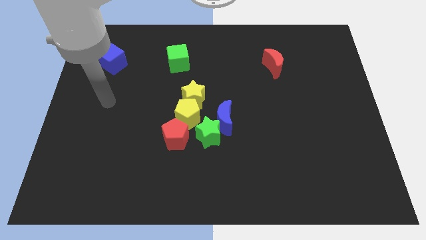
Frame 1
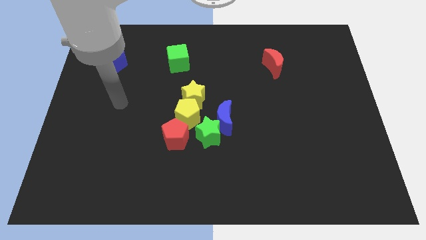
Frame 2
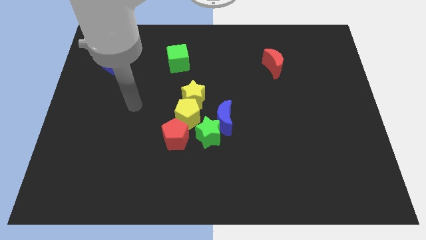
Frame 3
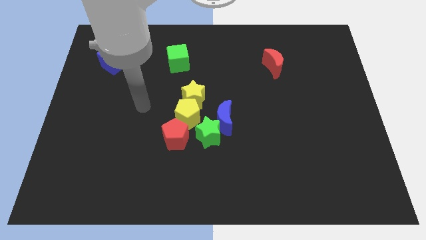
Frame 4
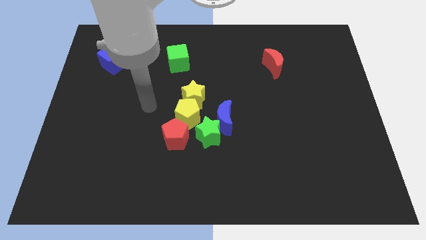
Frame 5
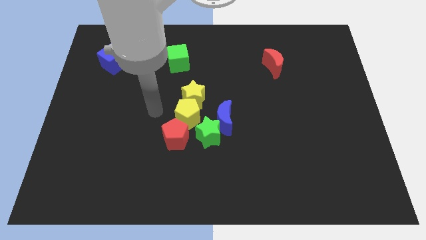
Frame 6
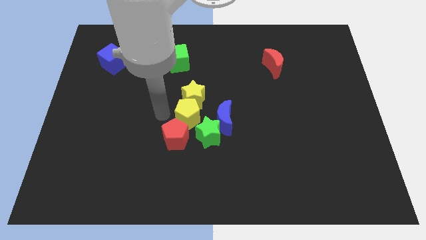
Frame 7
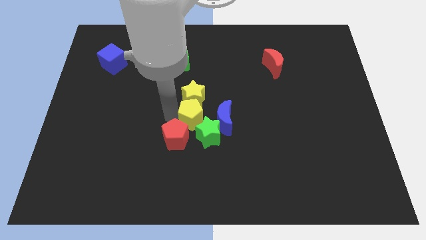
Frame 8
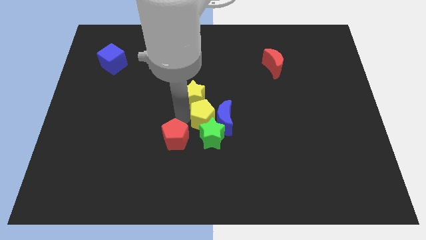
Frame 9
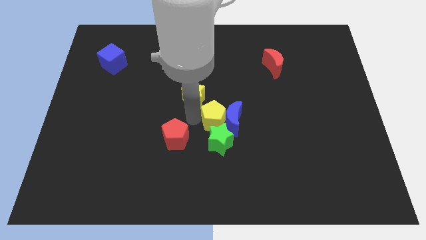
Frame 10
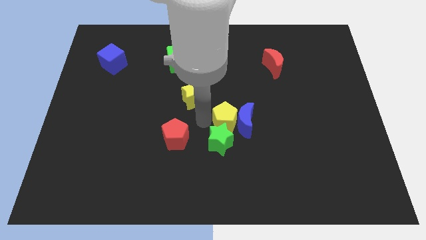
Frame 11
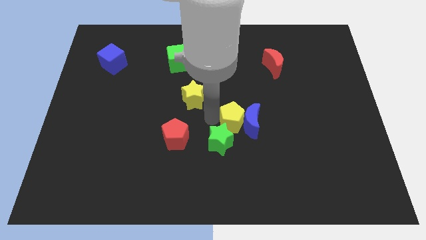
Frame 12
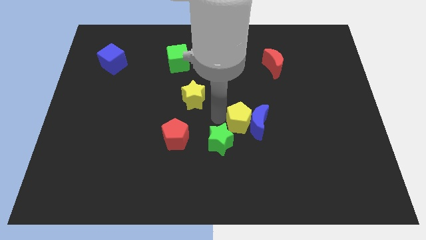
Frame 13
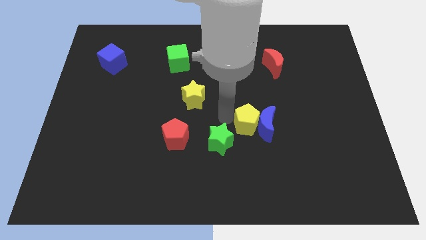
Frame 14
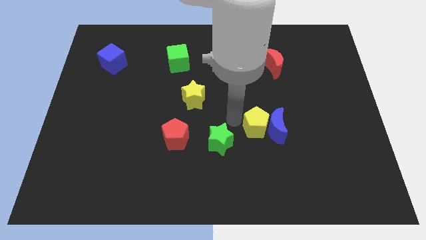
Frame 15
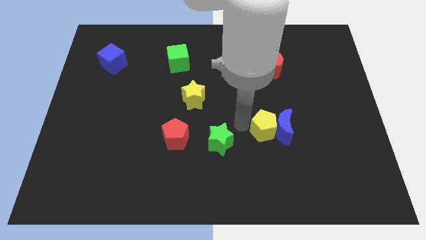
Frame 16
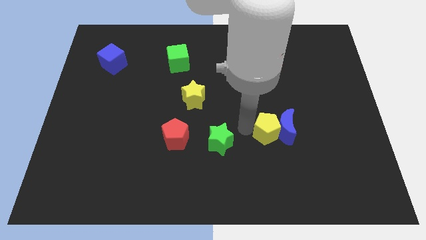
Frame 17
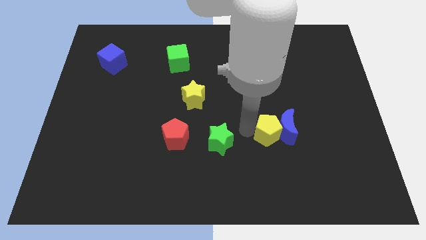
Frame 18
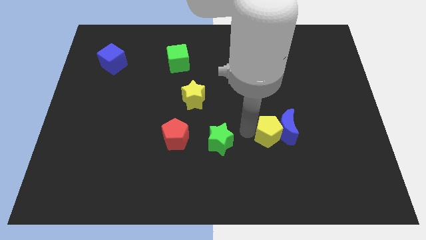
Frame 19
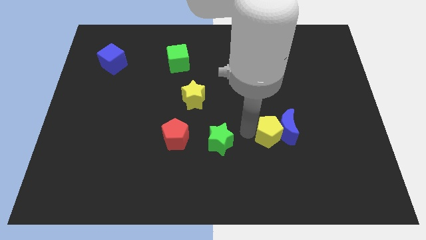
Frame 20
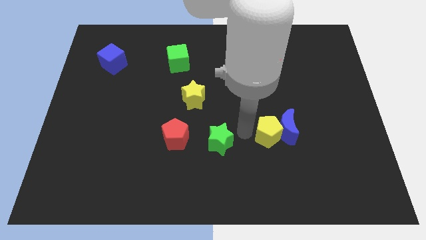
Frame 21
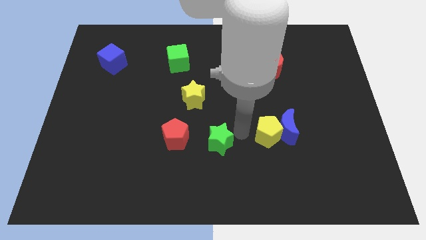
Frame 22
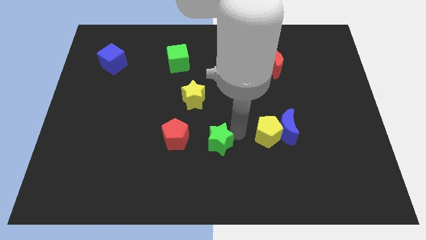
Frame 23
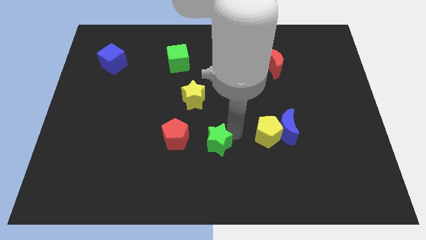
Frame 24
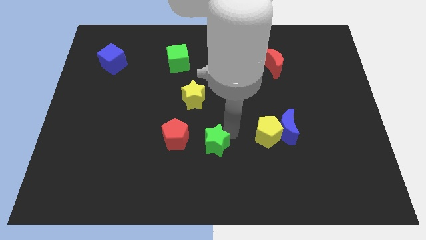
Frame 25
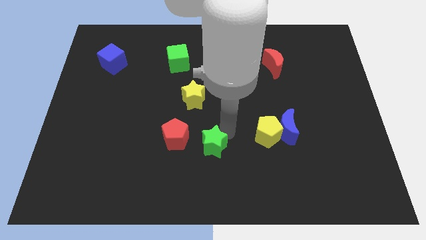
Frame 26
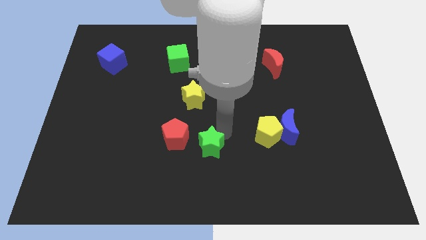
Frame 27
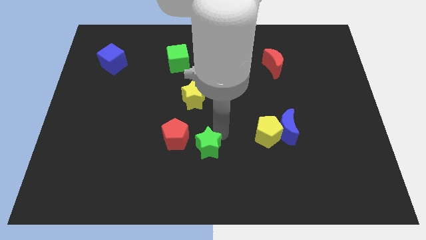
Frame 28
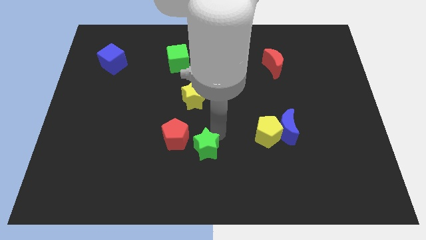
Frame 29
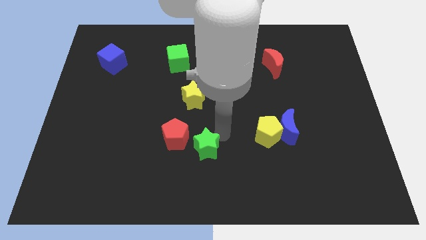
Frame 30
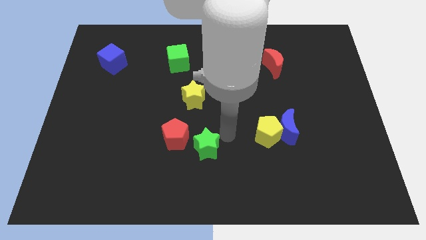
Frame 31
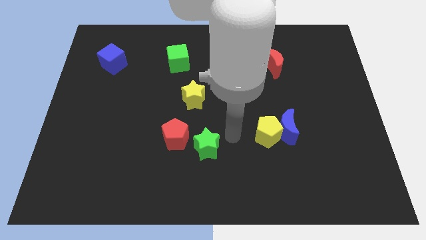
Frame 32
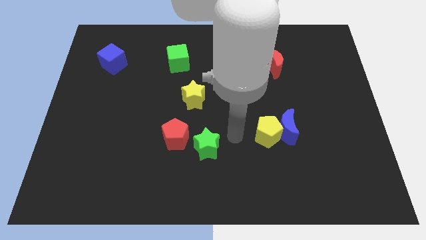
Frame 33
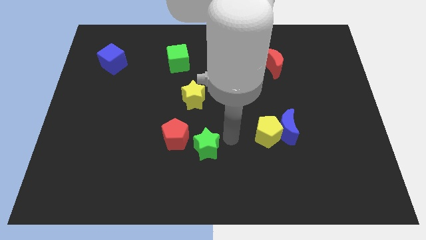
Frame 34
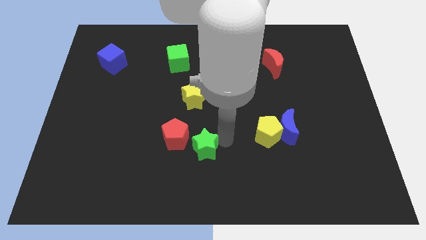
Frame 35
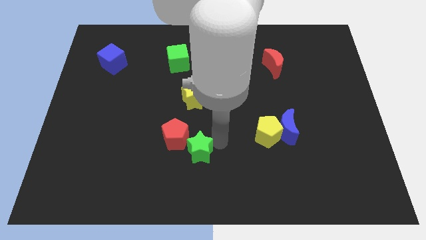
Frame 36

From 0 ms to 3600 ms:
pull the green star apart from the blue moon, yellow pentagon, and red pentagon

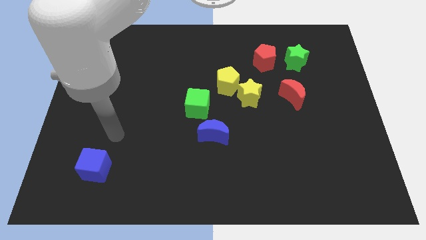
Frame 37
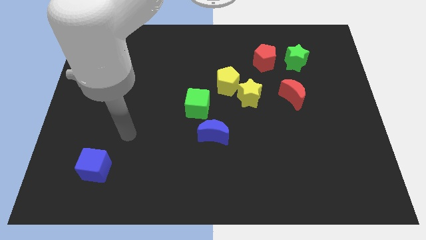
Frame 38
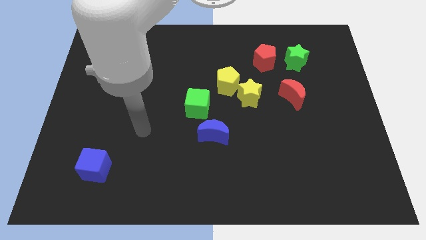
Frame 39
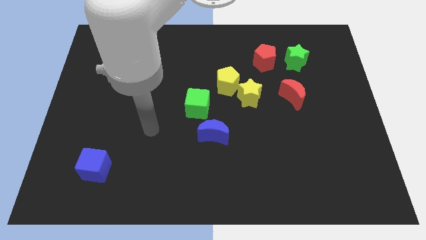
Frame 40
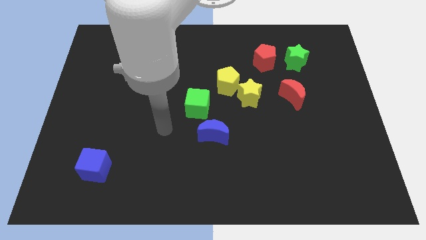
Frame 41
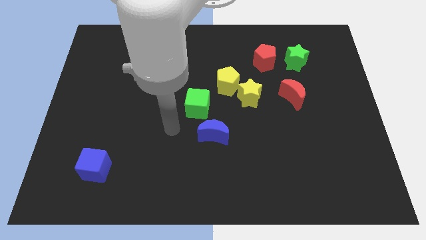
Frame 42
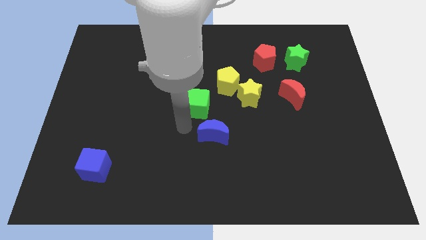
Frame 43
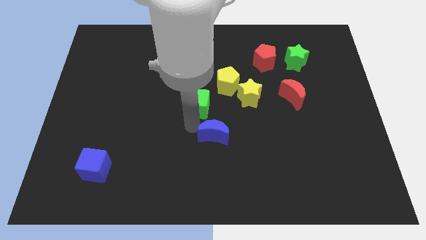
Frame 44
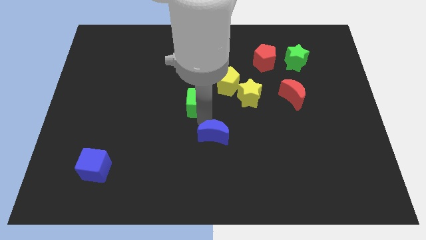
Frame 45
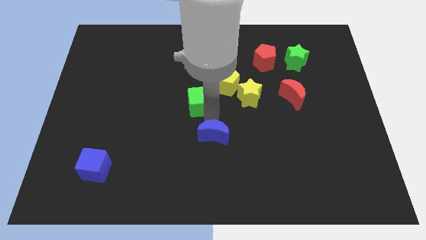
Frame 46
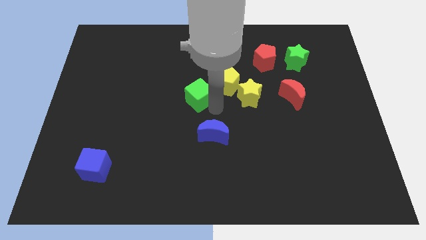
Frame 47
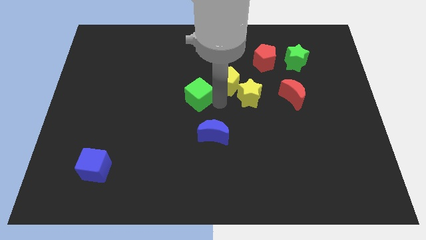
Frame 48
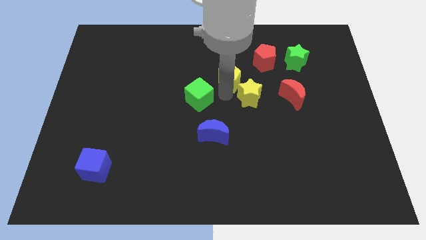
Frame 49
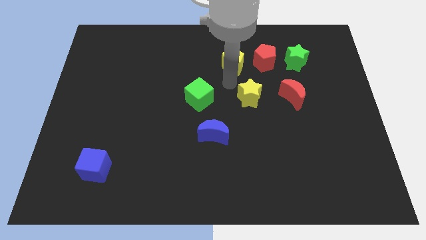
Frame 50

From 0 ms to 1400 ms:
pull the yellow star apart from the yellow pentagon

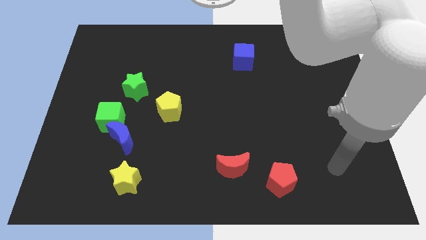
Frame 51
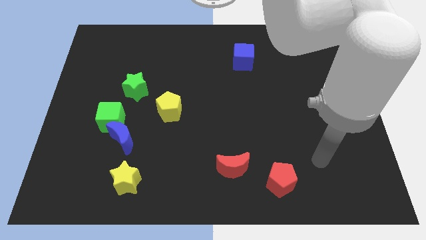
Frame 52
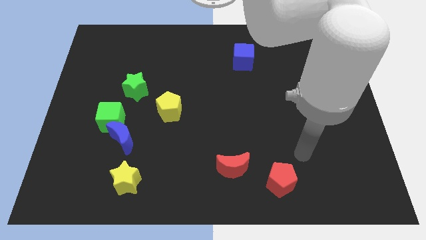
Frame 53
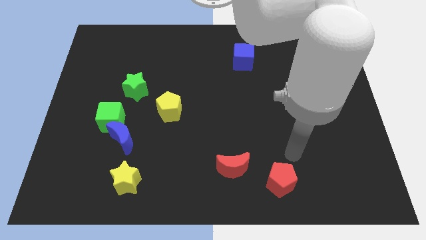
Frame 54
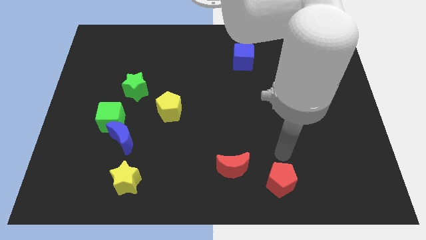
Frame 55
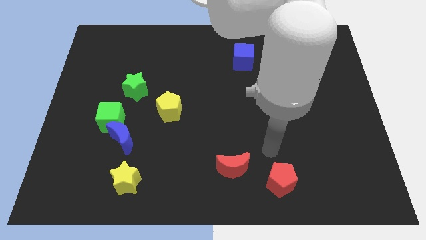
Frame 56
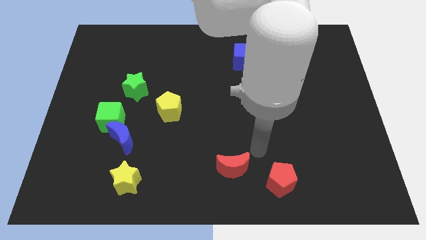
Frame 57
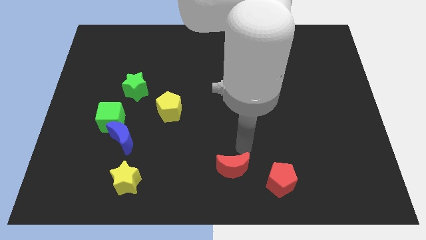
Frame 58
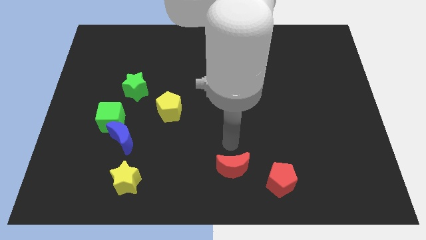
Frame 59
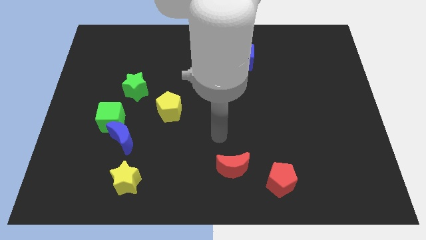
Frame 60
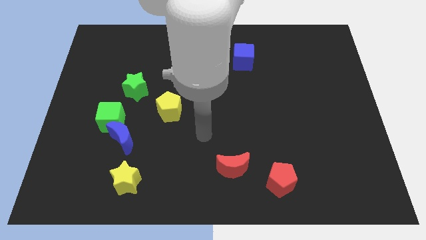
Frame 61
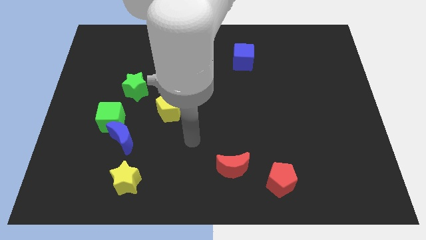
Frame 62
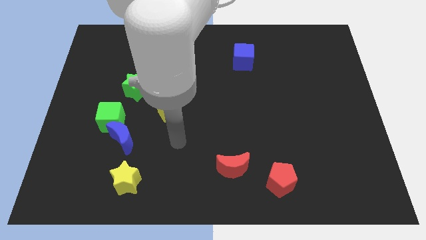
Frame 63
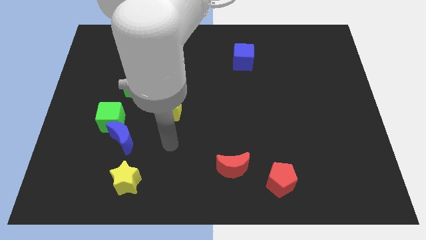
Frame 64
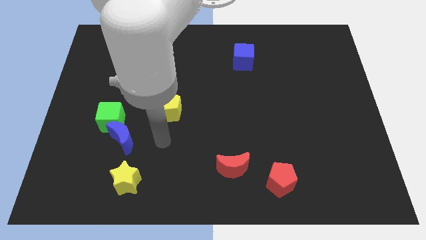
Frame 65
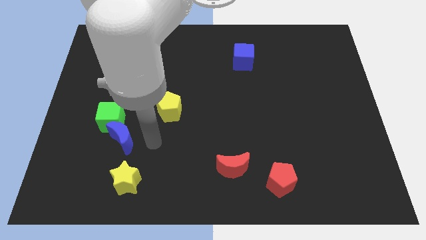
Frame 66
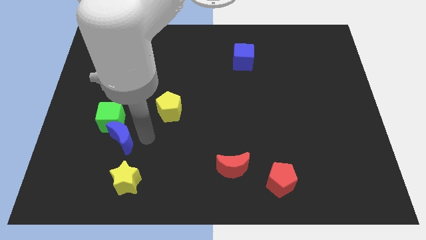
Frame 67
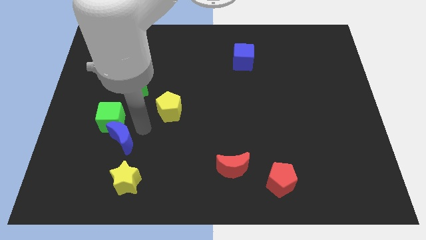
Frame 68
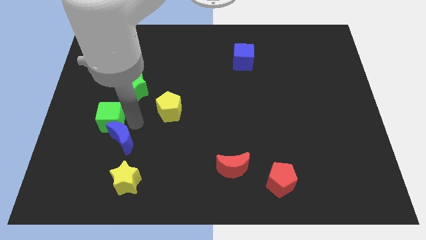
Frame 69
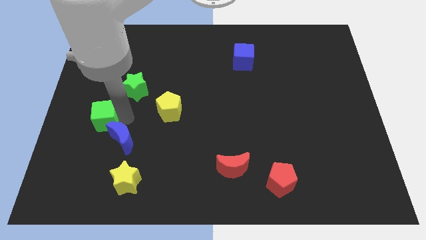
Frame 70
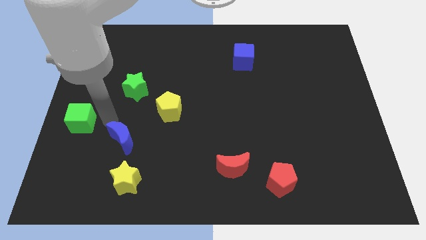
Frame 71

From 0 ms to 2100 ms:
pull the blue moon apart from the green cube

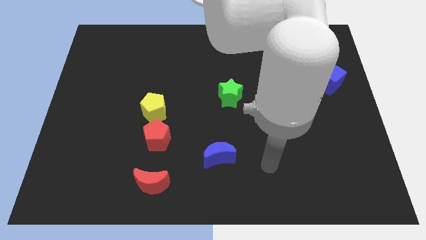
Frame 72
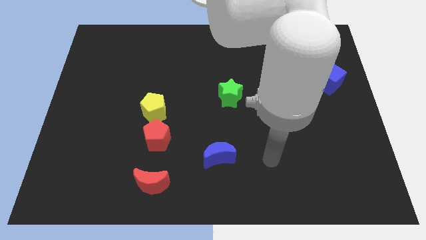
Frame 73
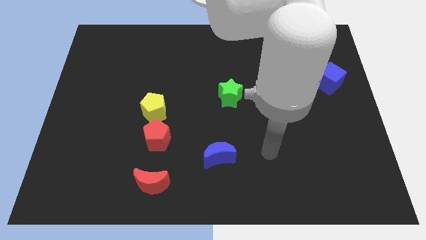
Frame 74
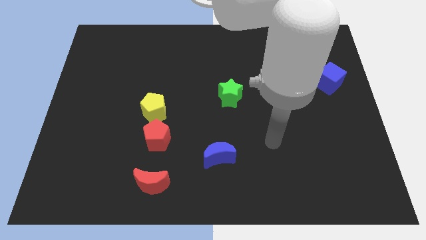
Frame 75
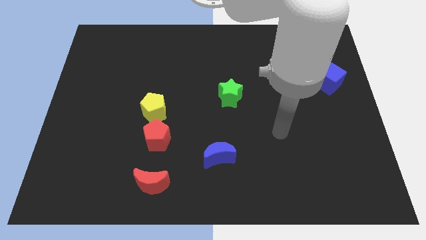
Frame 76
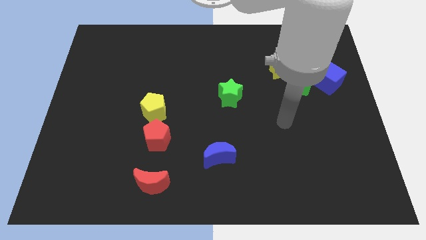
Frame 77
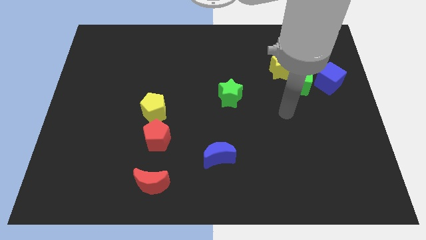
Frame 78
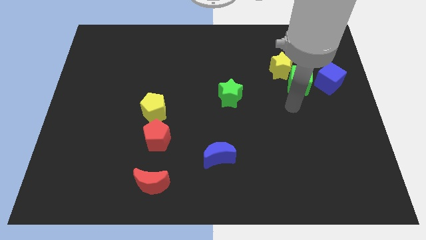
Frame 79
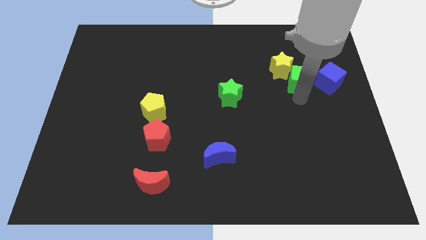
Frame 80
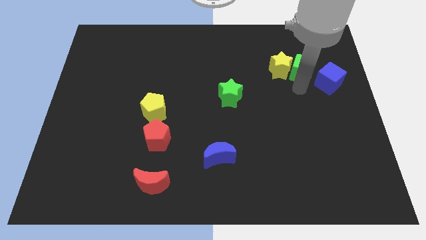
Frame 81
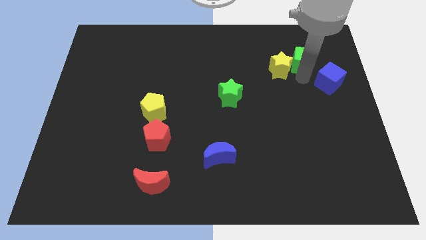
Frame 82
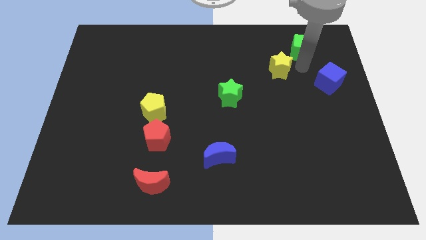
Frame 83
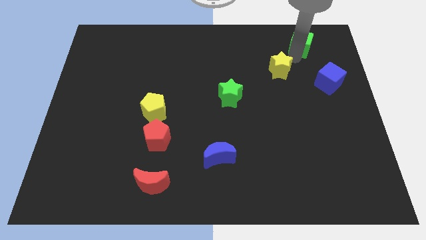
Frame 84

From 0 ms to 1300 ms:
separate the yellow star from the green cube

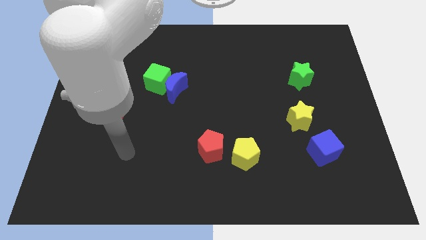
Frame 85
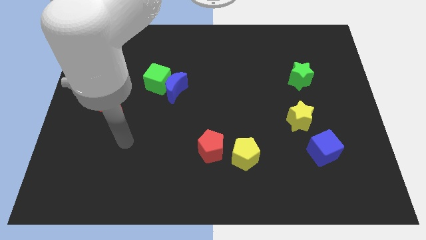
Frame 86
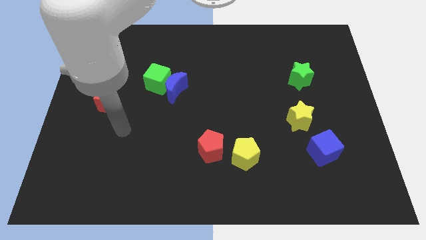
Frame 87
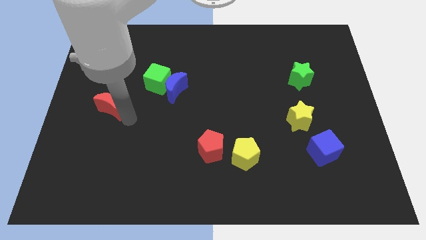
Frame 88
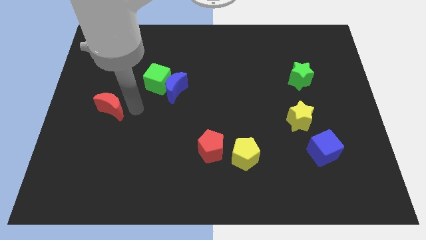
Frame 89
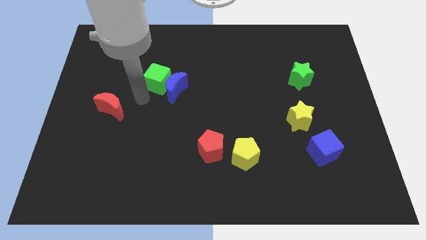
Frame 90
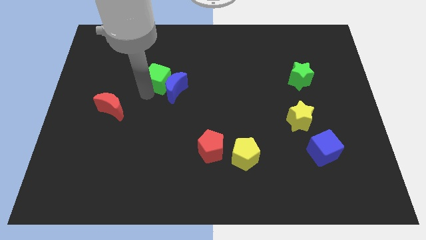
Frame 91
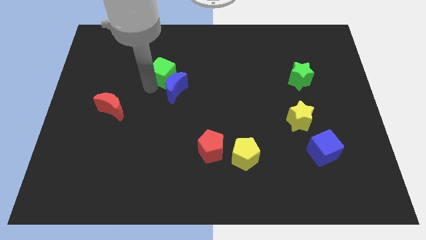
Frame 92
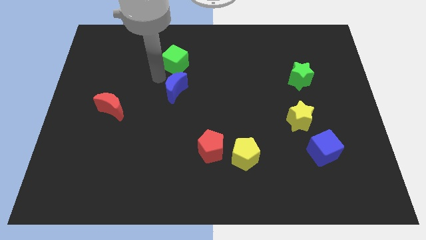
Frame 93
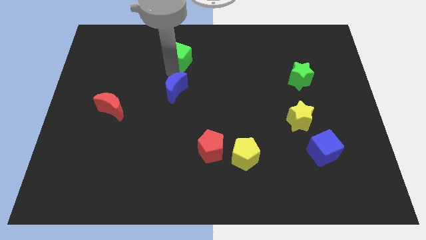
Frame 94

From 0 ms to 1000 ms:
move the blue moon away from the green cube
